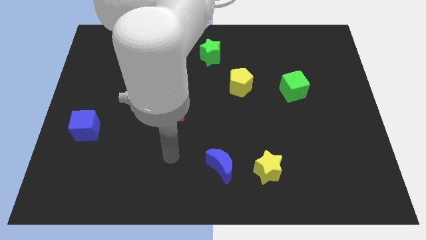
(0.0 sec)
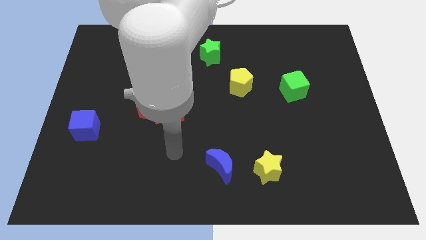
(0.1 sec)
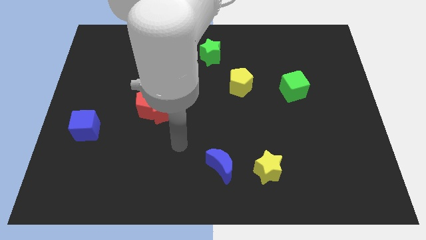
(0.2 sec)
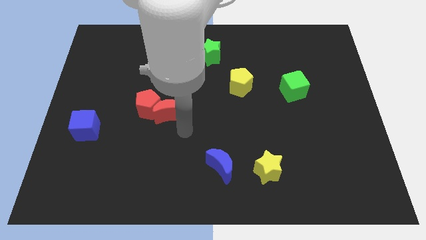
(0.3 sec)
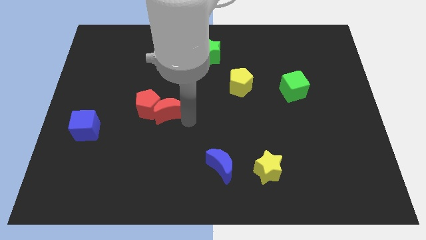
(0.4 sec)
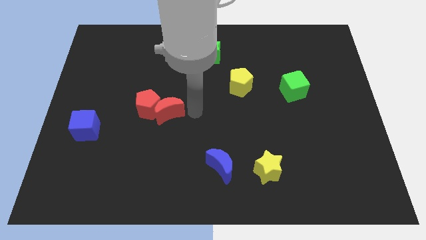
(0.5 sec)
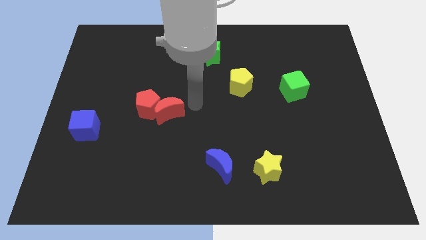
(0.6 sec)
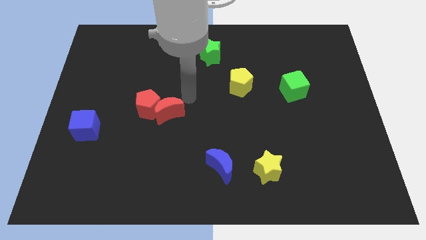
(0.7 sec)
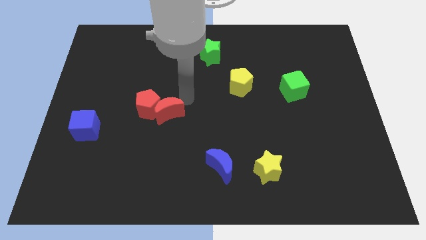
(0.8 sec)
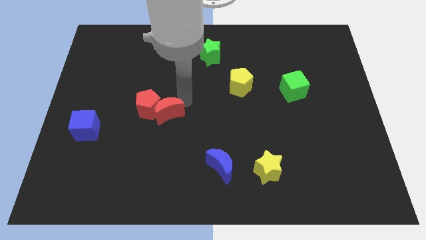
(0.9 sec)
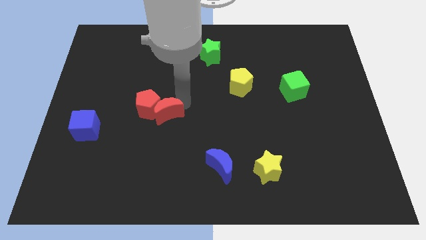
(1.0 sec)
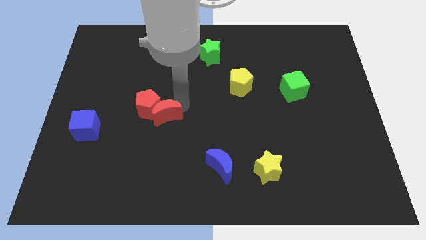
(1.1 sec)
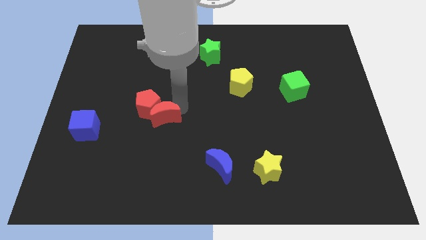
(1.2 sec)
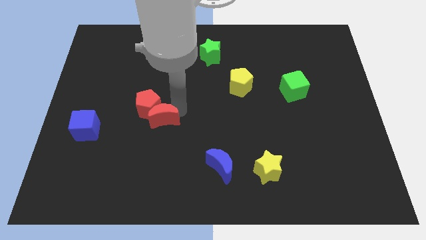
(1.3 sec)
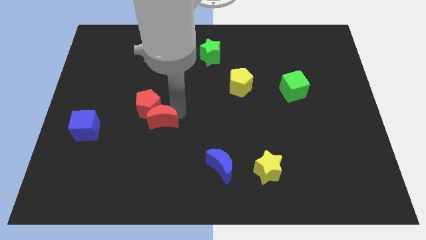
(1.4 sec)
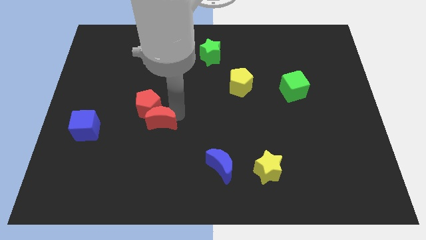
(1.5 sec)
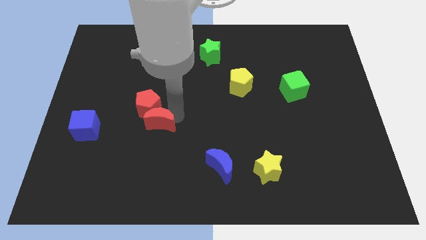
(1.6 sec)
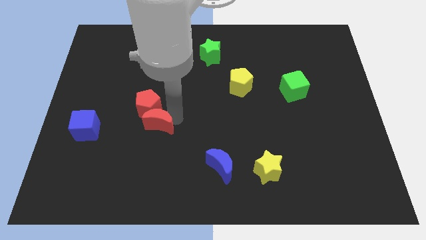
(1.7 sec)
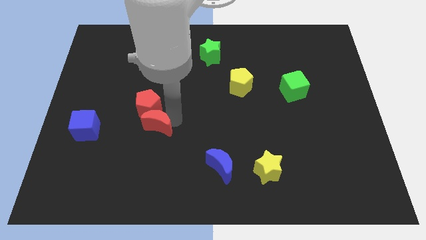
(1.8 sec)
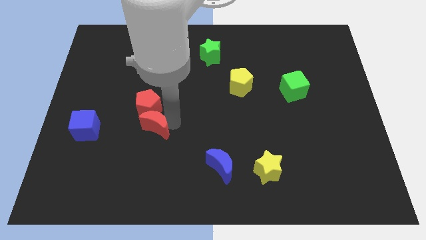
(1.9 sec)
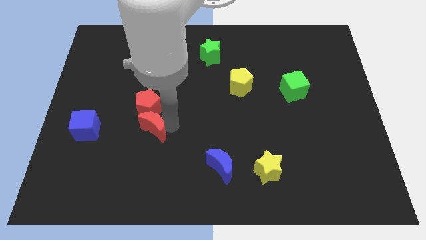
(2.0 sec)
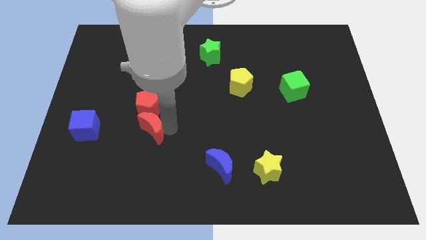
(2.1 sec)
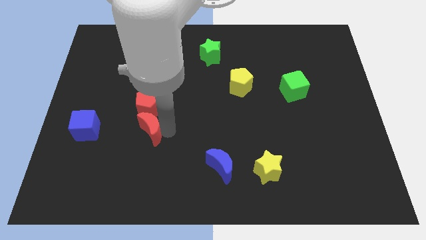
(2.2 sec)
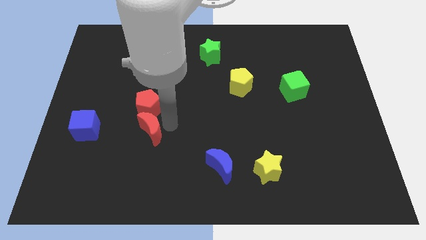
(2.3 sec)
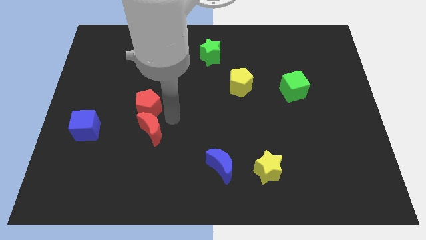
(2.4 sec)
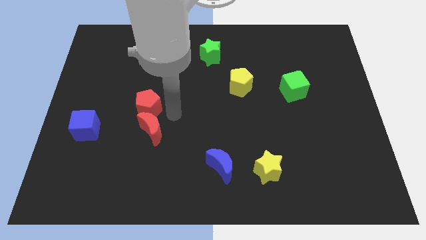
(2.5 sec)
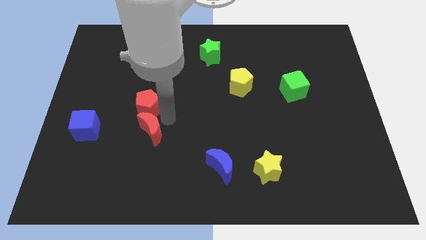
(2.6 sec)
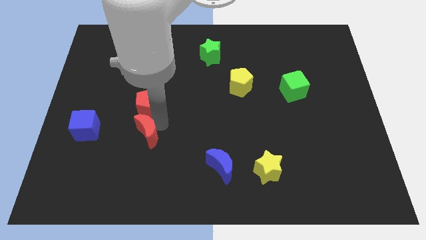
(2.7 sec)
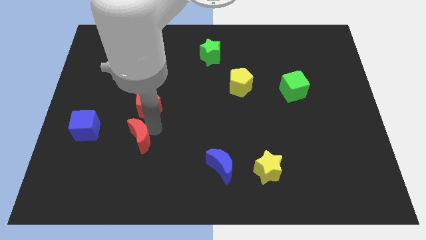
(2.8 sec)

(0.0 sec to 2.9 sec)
push the red moon down and then left a little bit

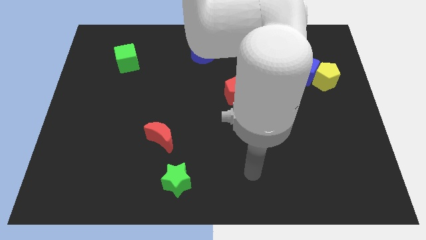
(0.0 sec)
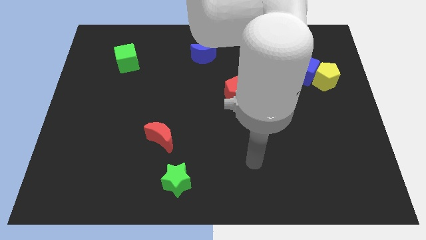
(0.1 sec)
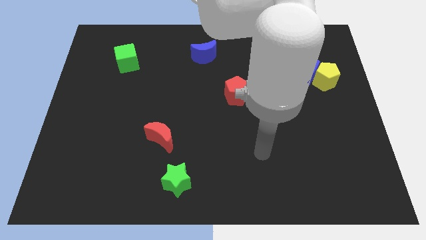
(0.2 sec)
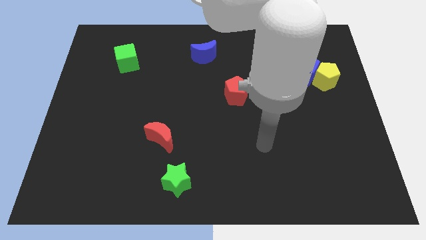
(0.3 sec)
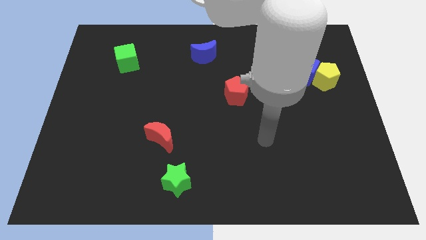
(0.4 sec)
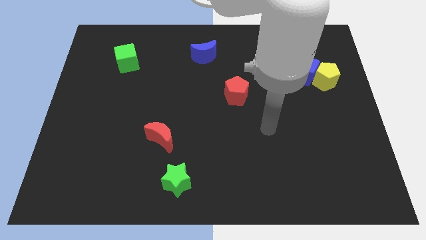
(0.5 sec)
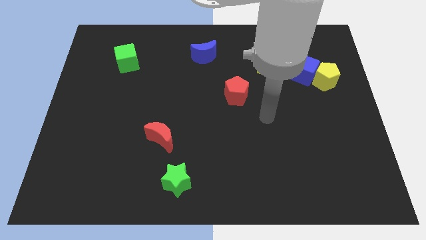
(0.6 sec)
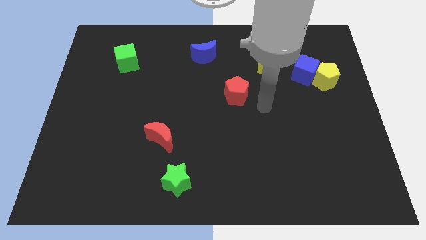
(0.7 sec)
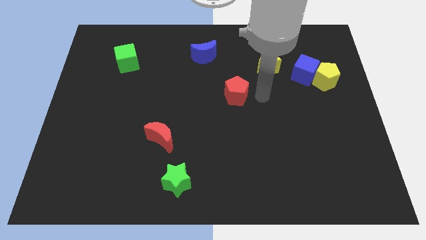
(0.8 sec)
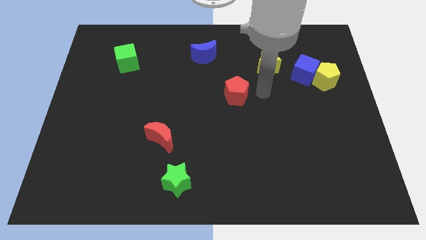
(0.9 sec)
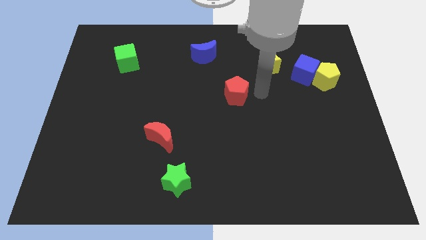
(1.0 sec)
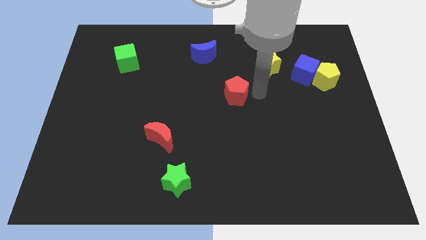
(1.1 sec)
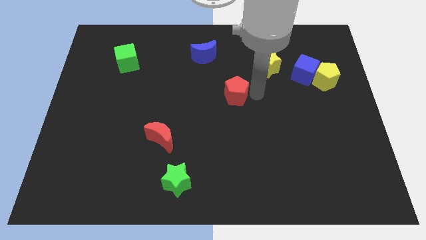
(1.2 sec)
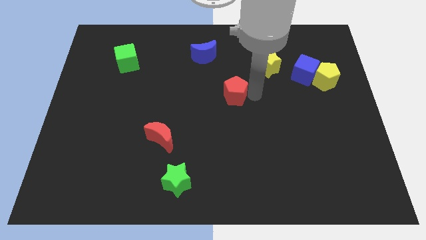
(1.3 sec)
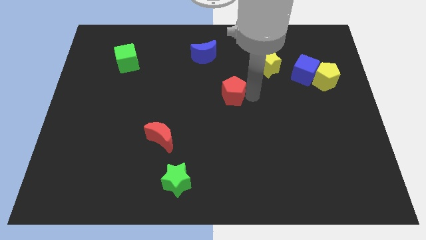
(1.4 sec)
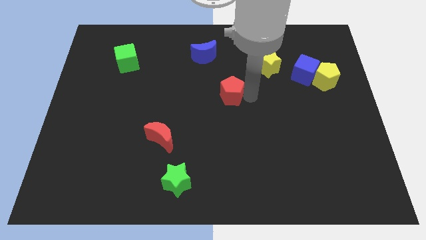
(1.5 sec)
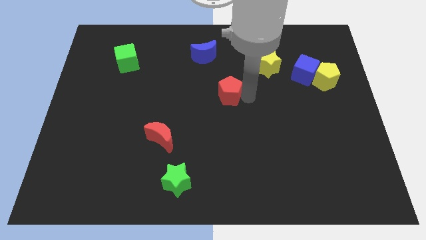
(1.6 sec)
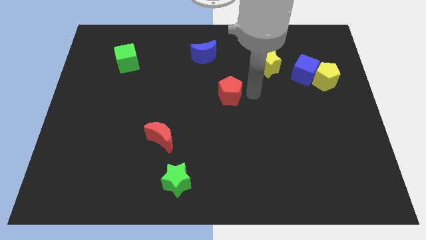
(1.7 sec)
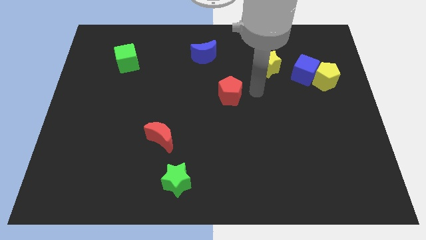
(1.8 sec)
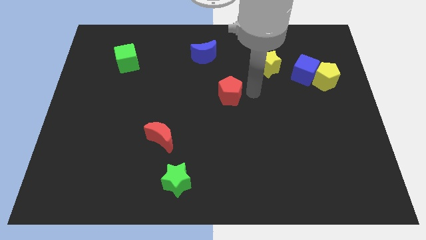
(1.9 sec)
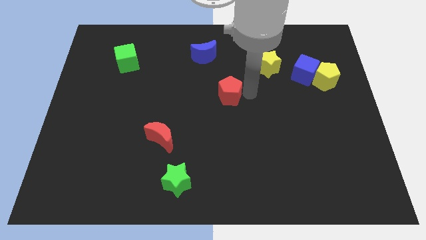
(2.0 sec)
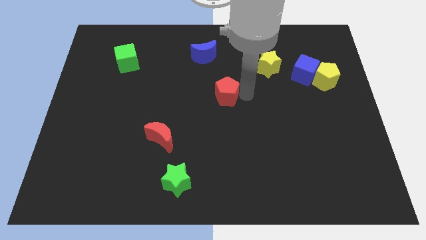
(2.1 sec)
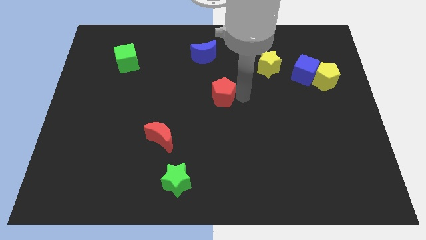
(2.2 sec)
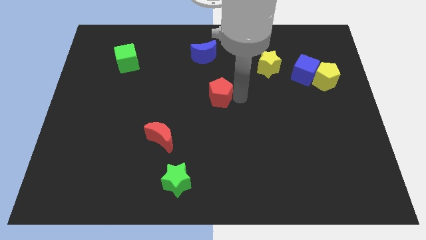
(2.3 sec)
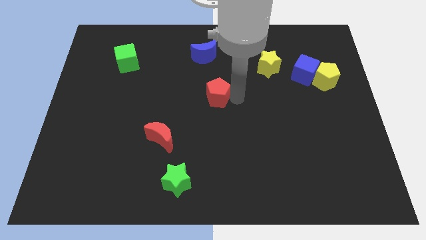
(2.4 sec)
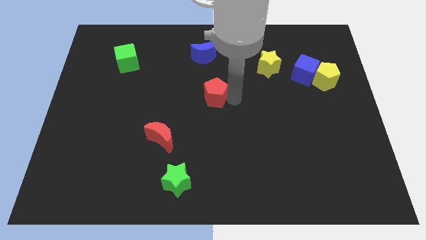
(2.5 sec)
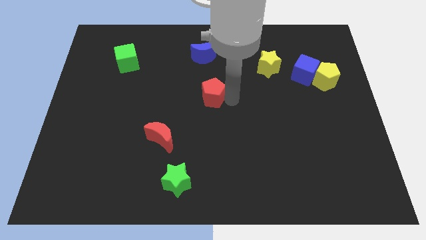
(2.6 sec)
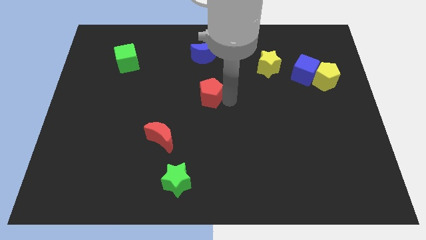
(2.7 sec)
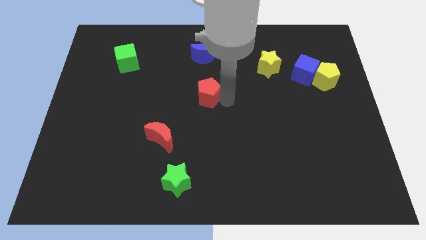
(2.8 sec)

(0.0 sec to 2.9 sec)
slide the red pentagon a little bit to the left

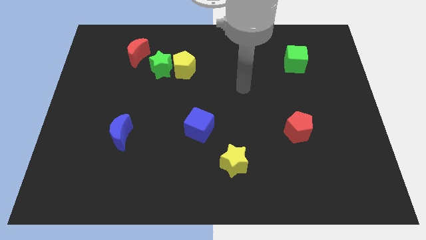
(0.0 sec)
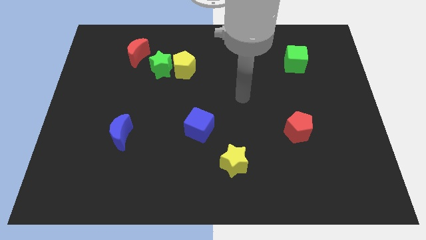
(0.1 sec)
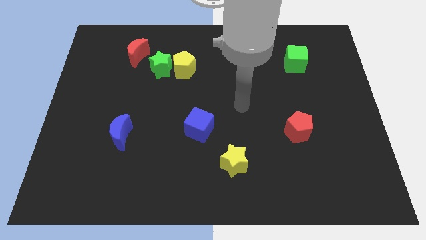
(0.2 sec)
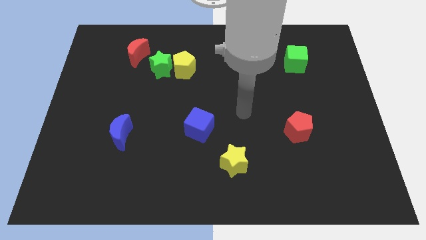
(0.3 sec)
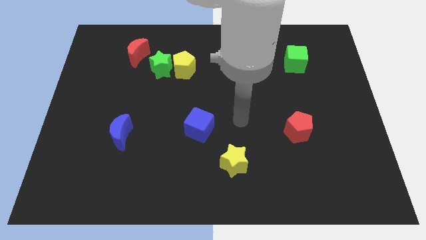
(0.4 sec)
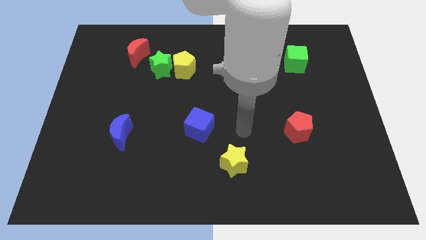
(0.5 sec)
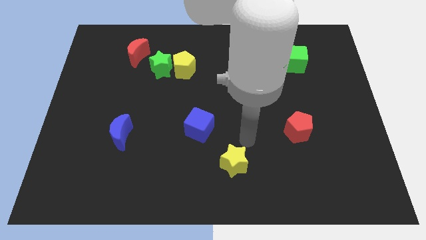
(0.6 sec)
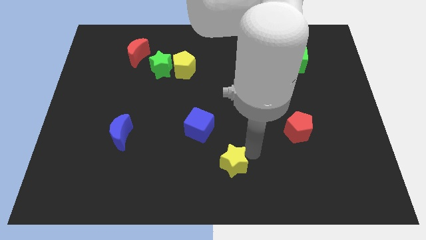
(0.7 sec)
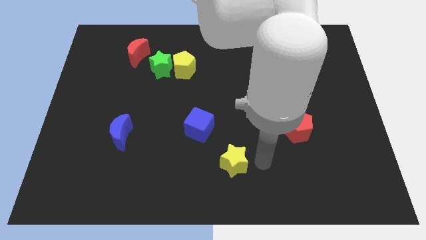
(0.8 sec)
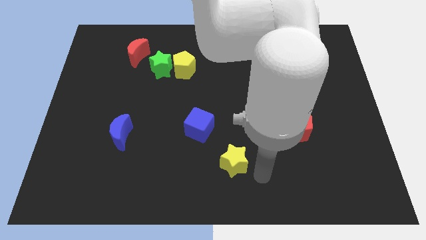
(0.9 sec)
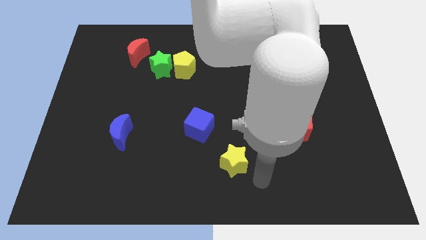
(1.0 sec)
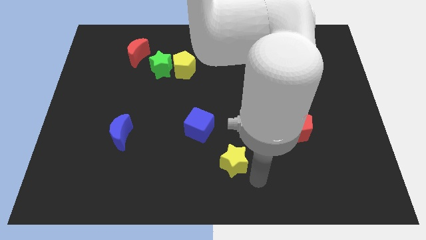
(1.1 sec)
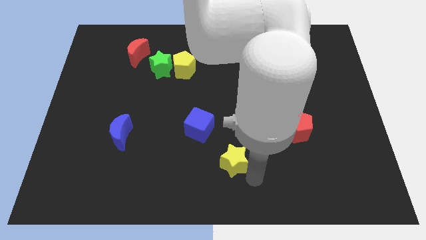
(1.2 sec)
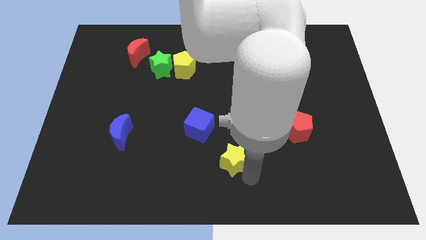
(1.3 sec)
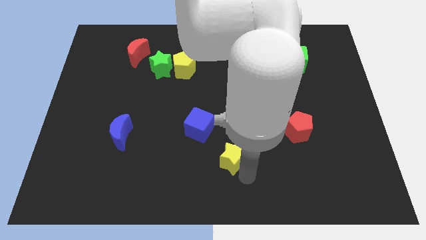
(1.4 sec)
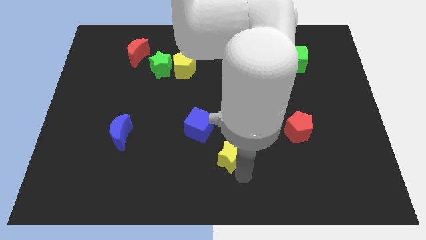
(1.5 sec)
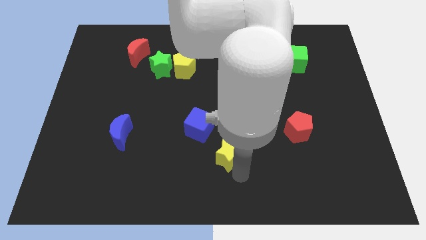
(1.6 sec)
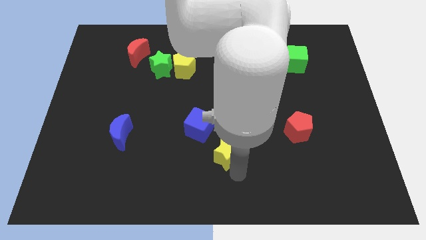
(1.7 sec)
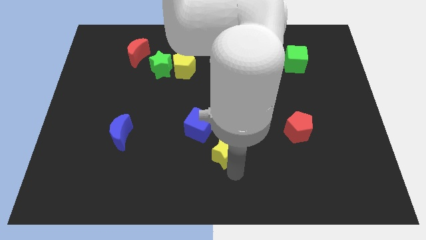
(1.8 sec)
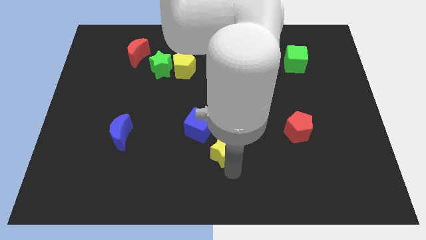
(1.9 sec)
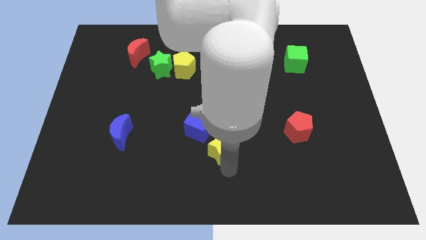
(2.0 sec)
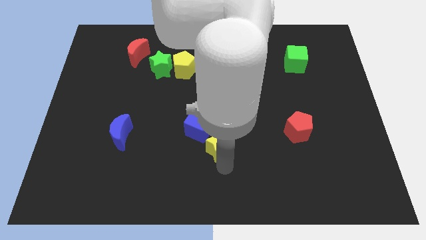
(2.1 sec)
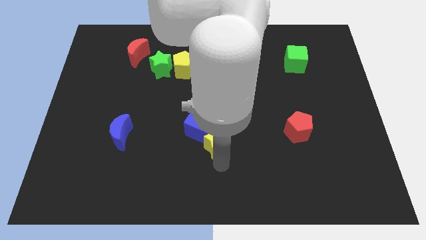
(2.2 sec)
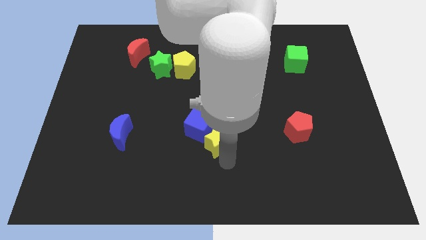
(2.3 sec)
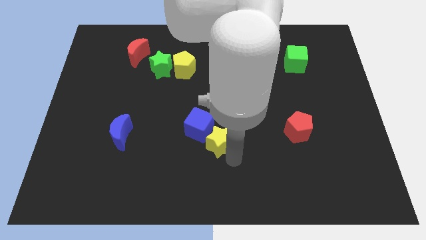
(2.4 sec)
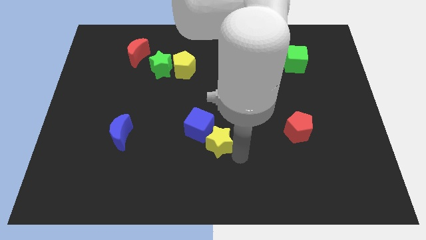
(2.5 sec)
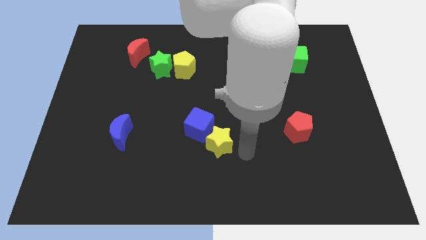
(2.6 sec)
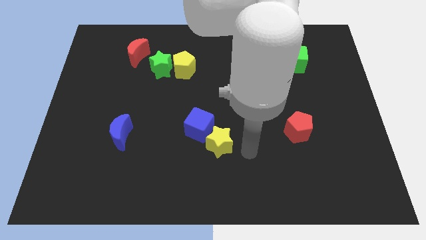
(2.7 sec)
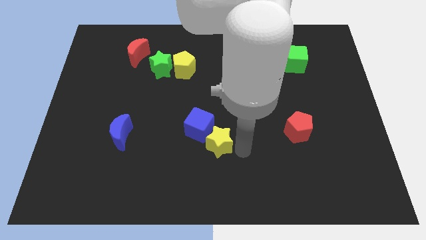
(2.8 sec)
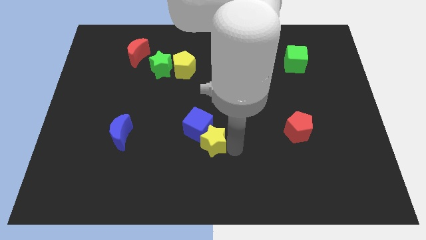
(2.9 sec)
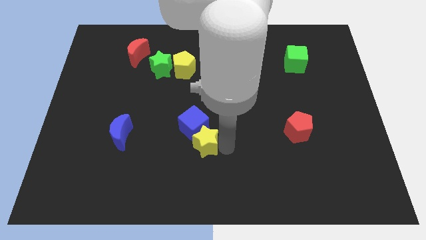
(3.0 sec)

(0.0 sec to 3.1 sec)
push the yellow star up and then to the left a little bit
